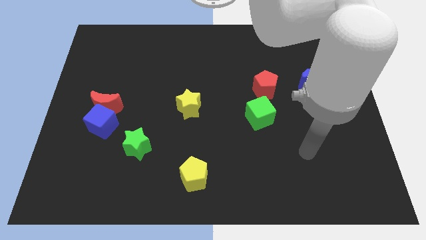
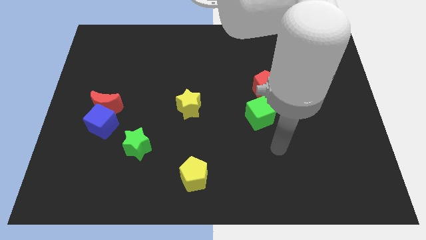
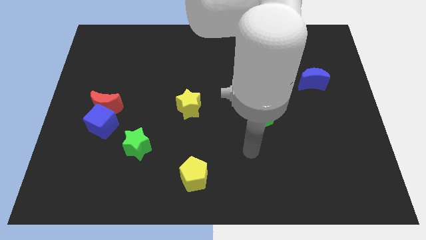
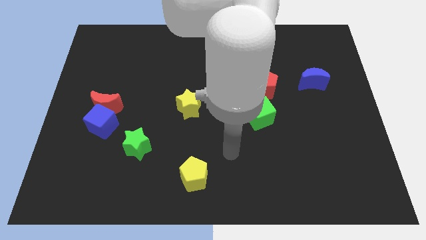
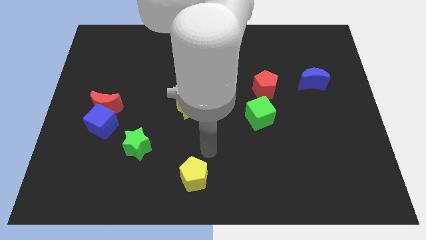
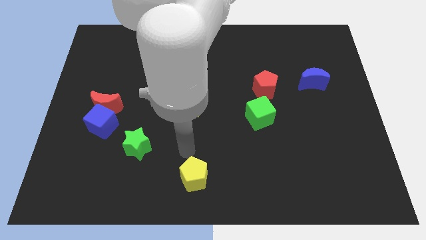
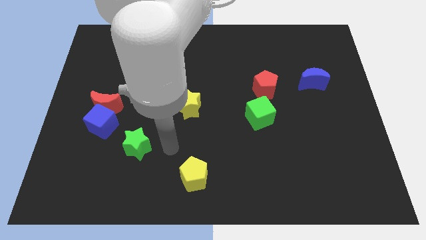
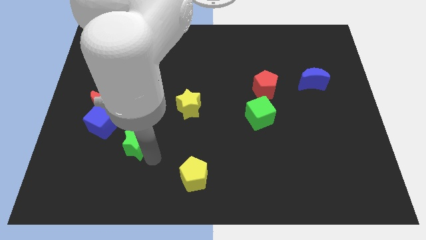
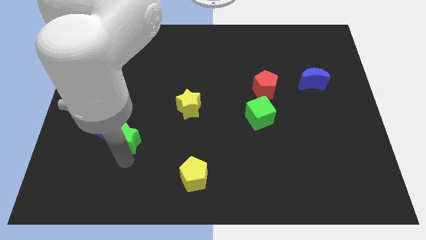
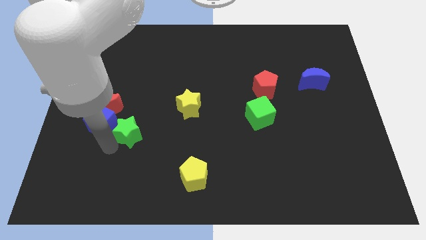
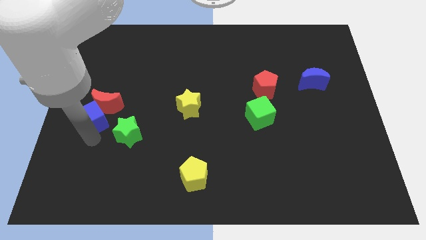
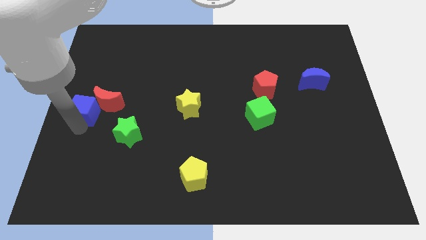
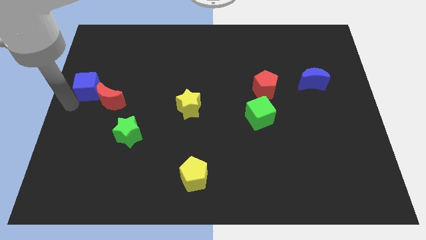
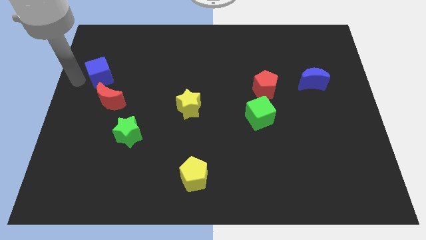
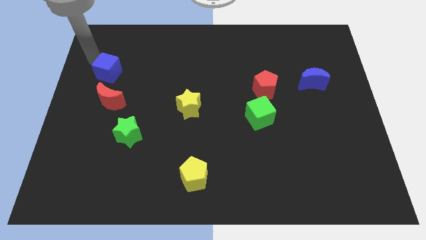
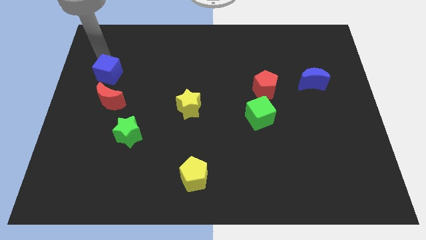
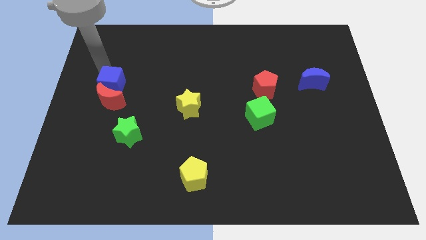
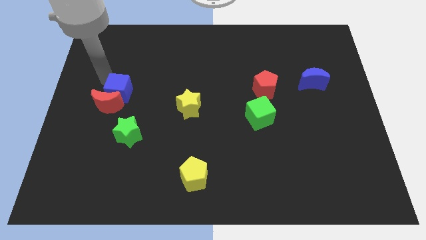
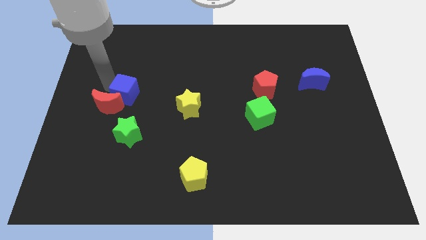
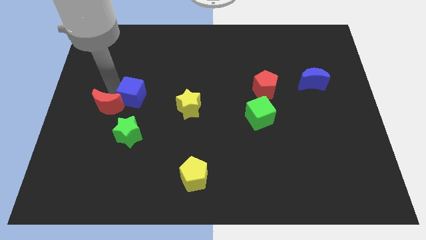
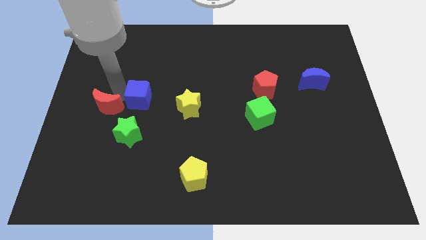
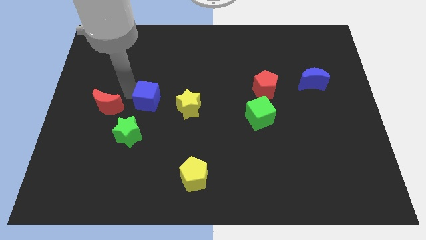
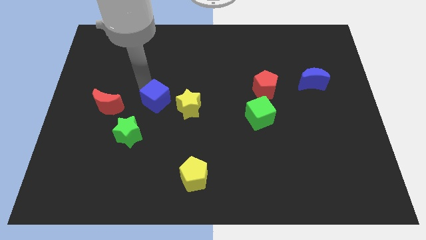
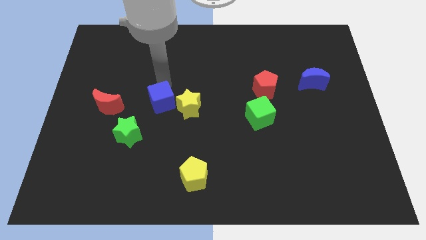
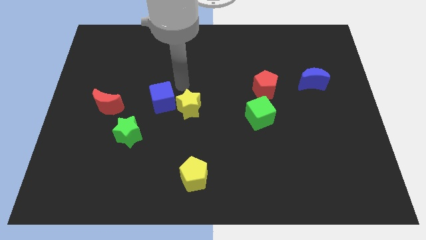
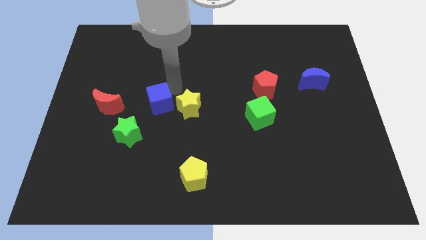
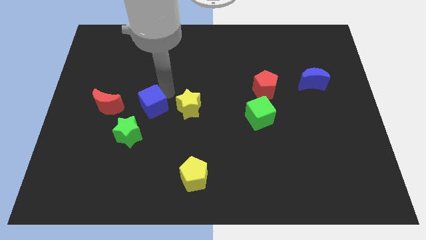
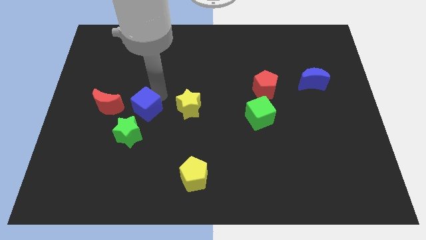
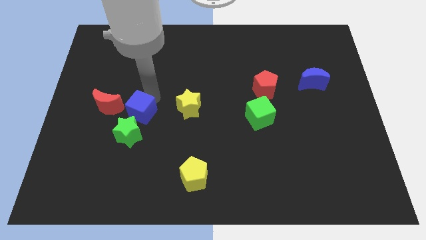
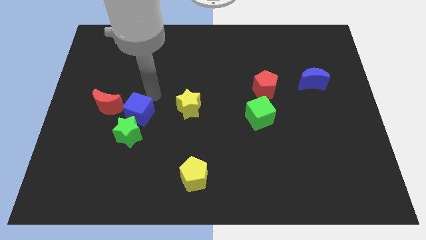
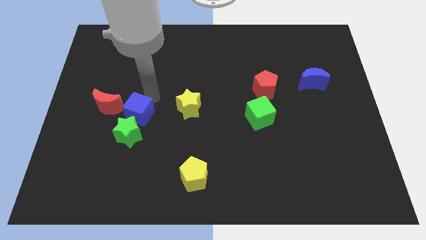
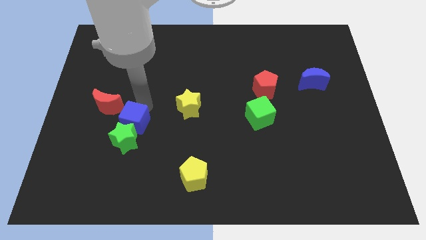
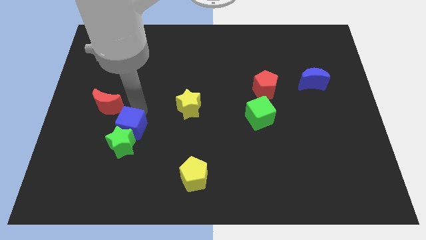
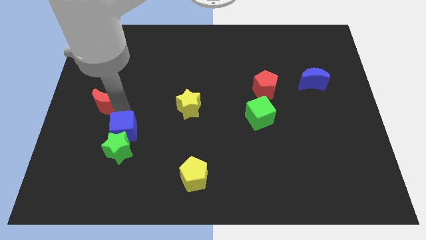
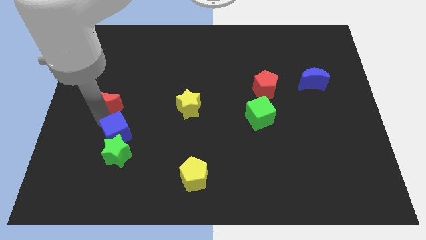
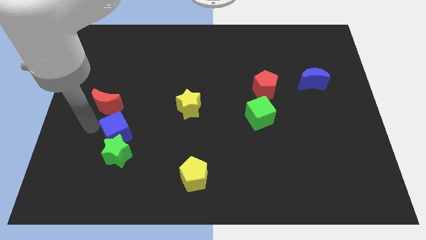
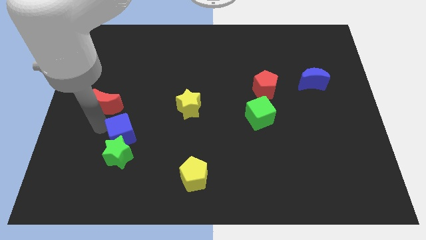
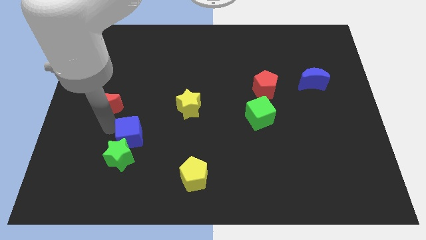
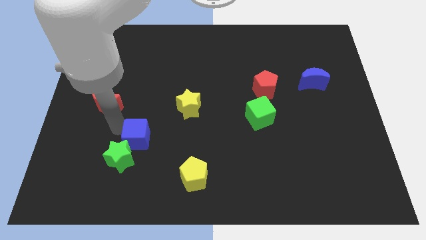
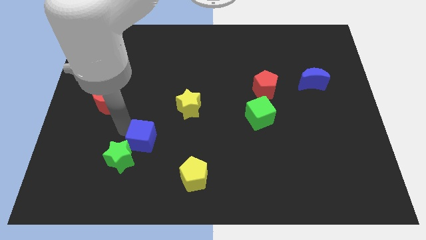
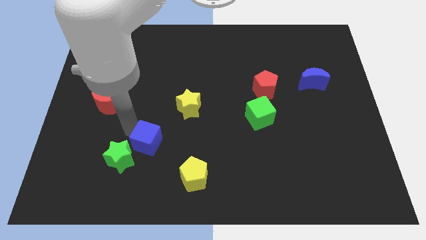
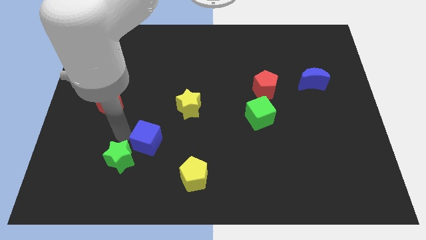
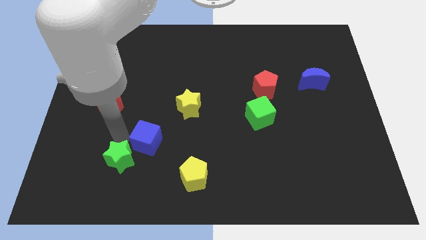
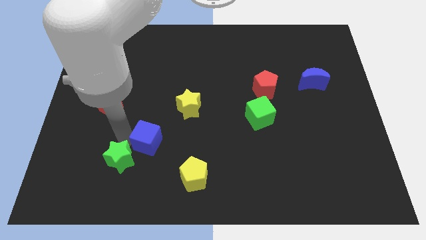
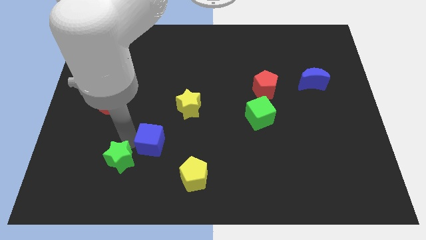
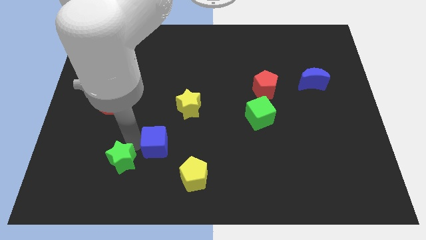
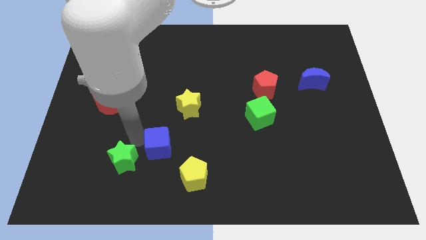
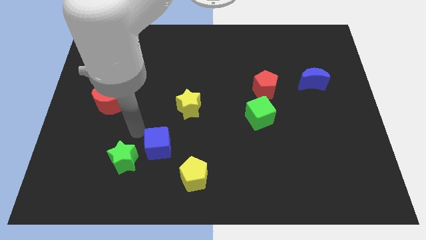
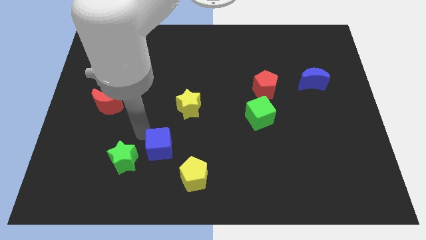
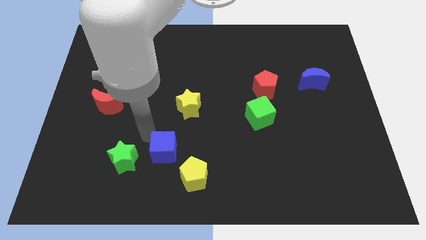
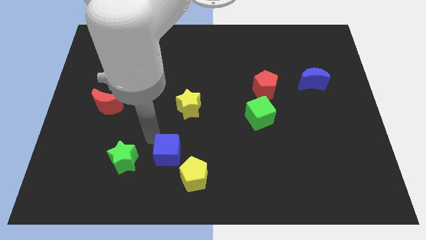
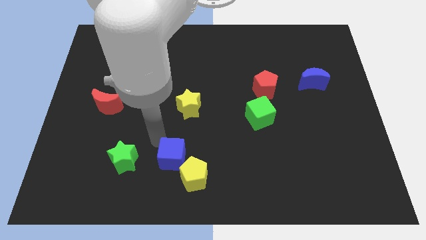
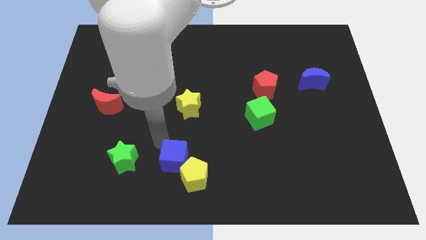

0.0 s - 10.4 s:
slide the blue cube to the yellow pentagon

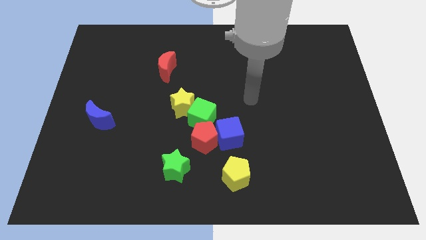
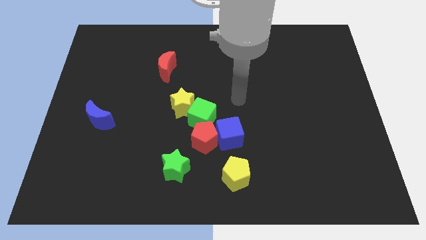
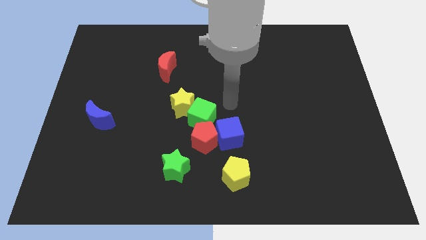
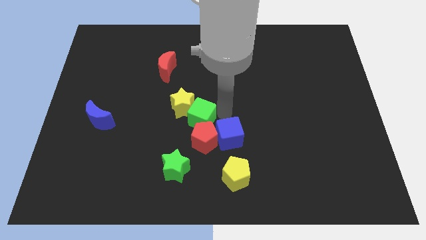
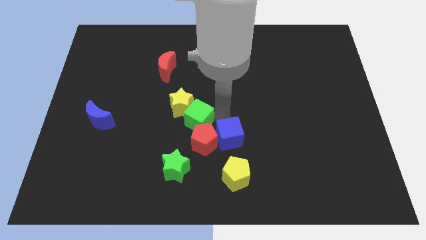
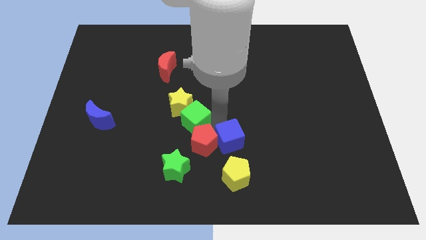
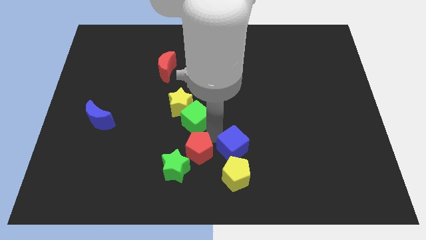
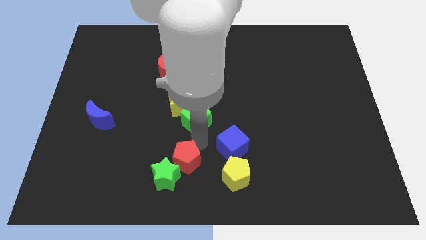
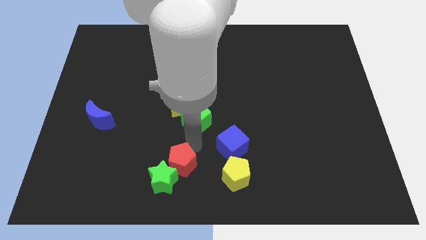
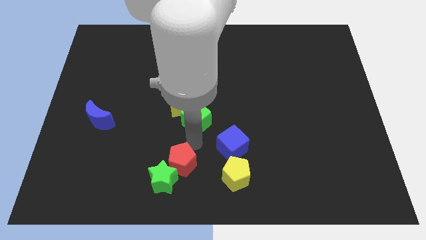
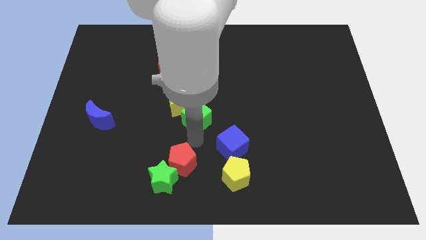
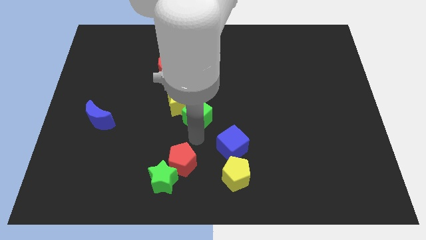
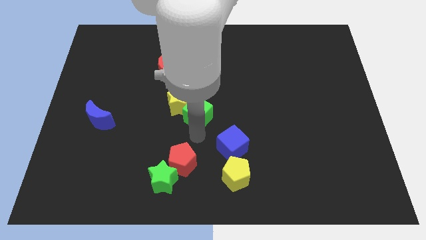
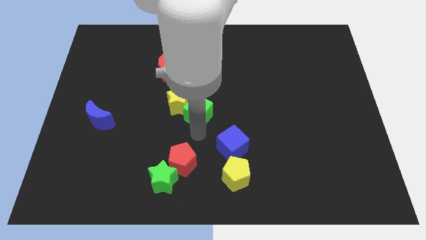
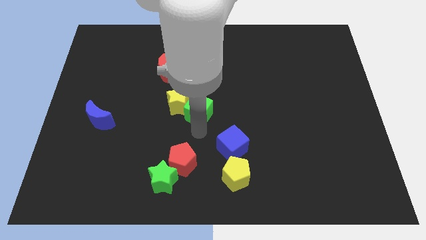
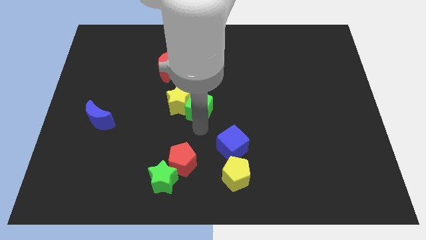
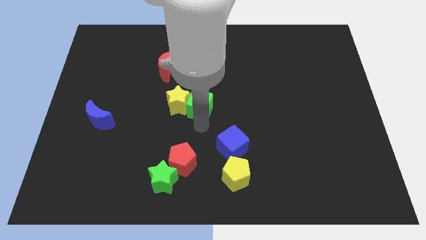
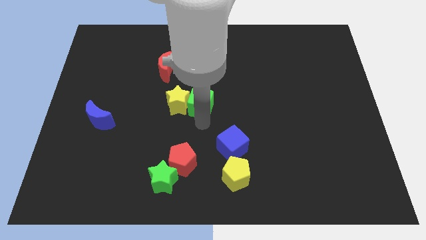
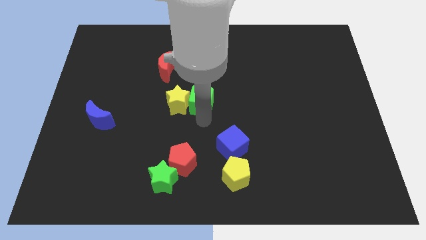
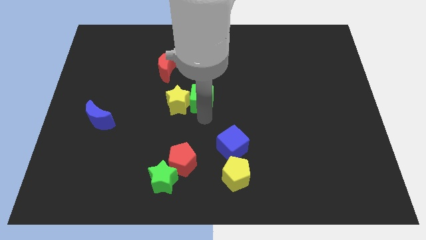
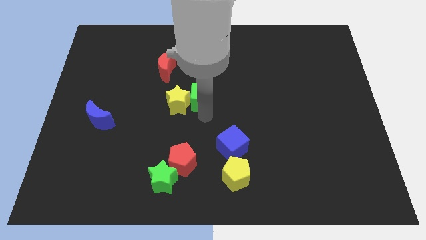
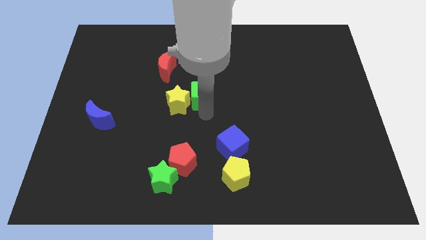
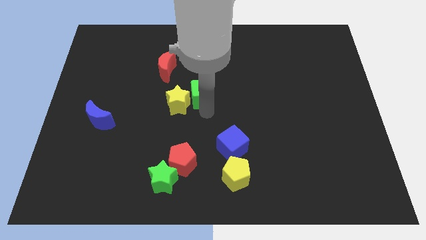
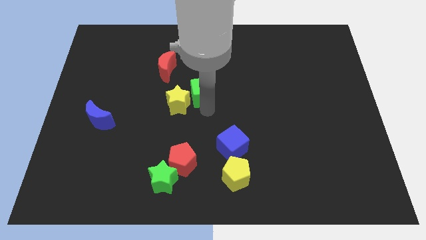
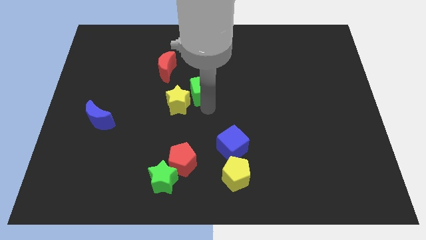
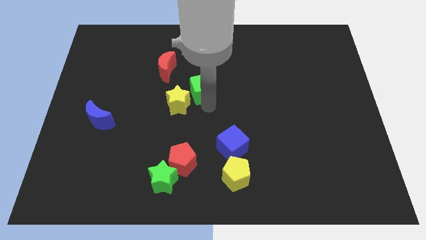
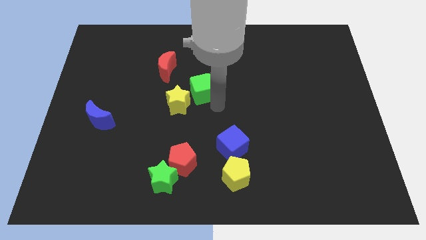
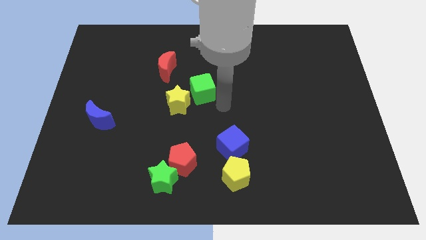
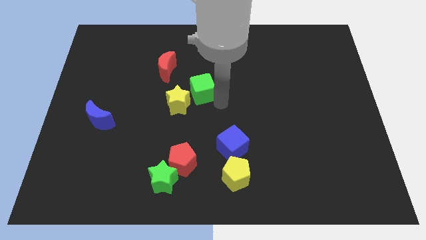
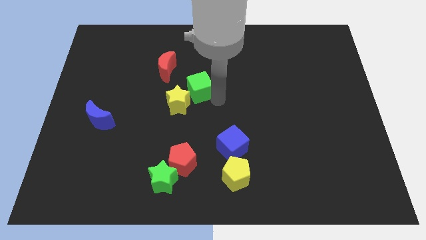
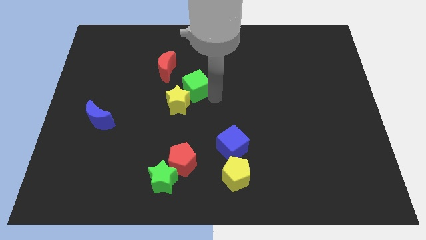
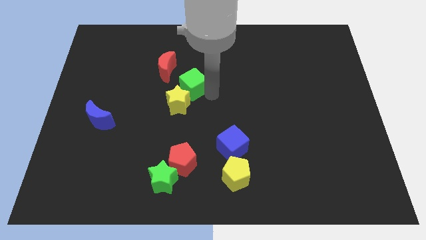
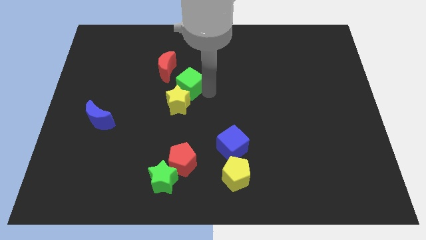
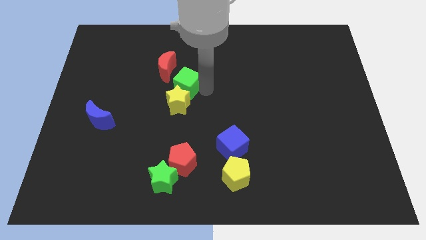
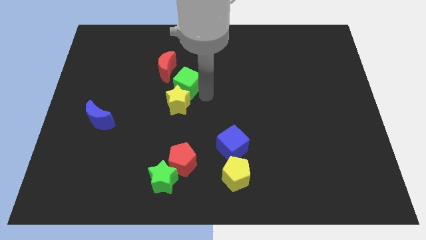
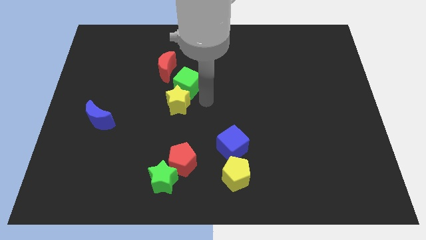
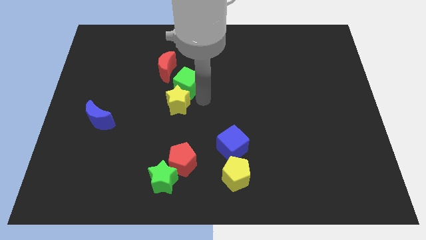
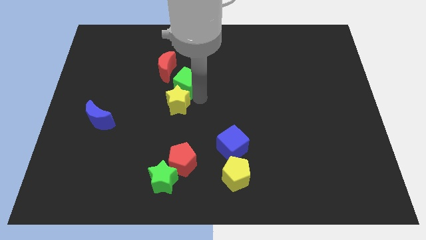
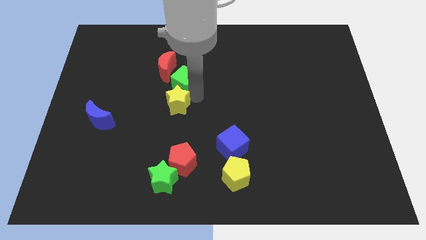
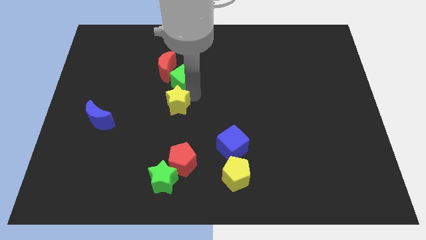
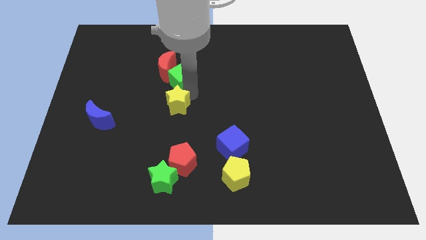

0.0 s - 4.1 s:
push the green cube close to the red moon
